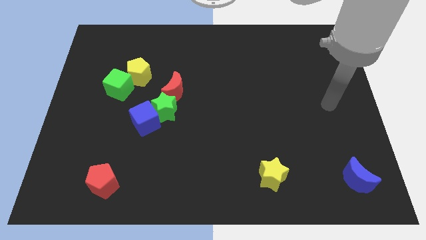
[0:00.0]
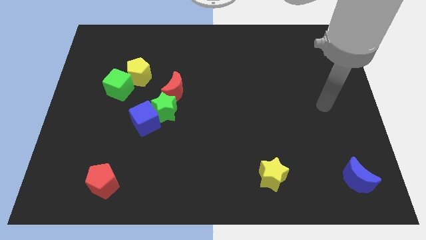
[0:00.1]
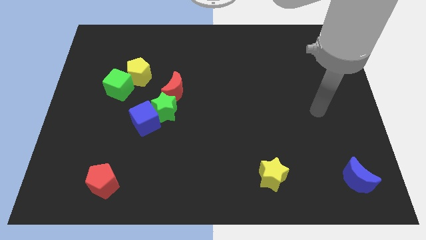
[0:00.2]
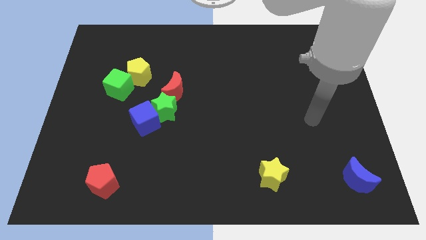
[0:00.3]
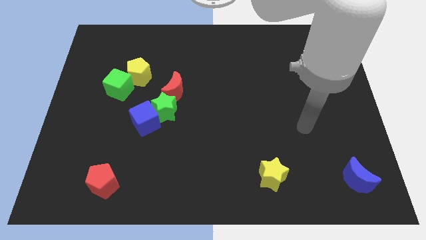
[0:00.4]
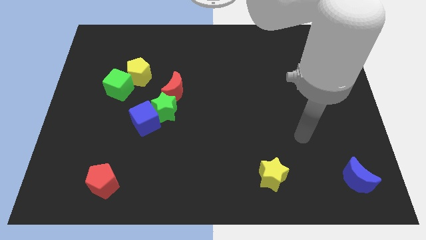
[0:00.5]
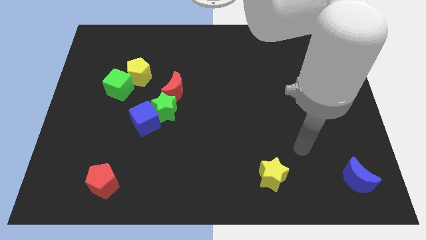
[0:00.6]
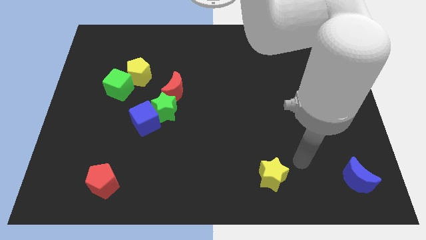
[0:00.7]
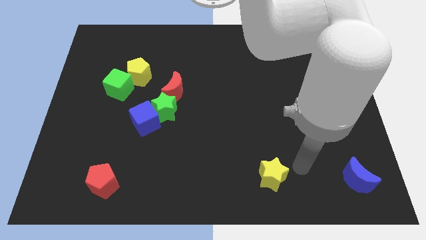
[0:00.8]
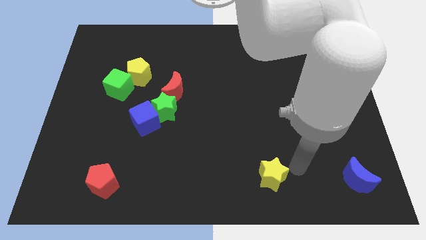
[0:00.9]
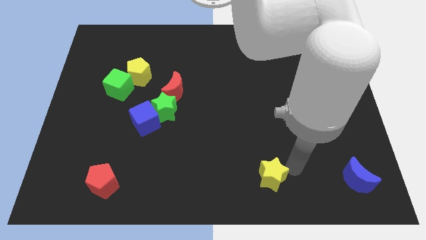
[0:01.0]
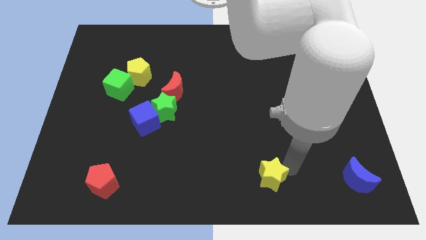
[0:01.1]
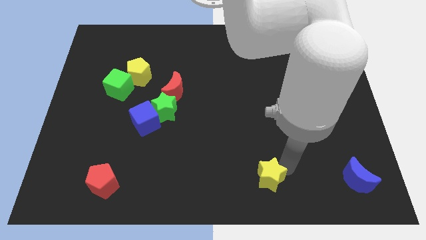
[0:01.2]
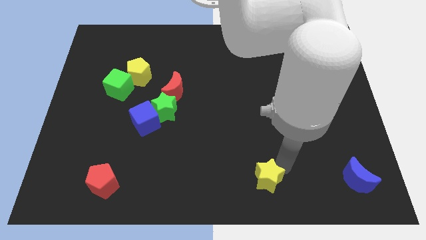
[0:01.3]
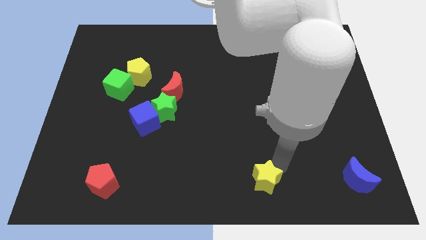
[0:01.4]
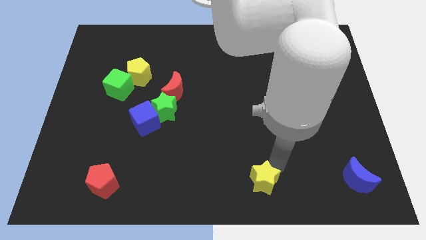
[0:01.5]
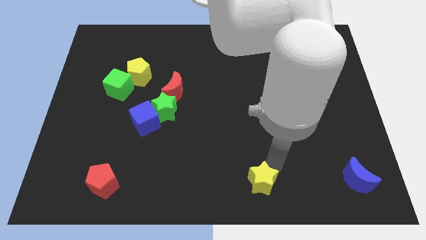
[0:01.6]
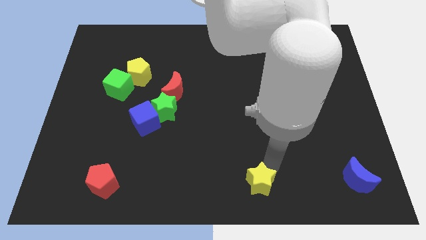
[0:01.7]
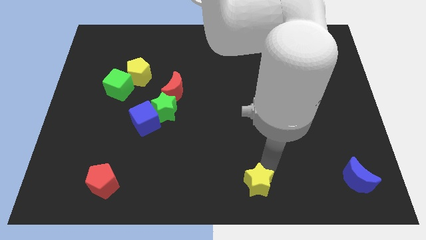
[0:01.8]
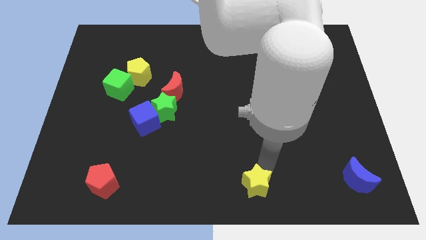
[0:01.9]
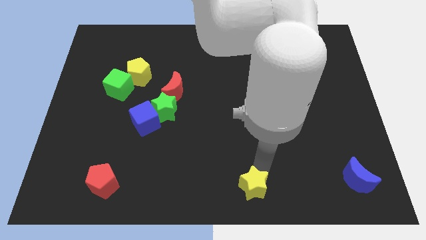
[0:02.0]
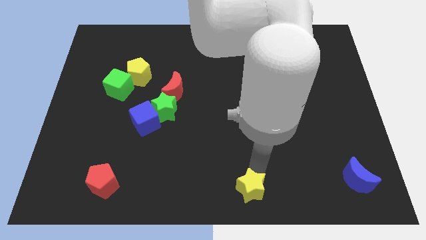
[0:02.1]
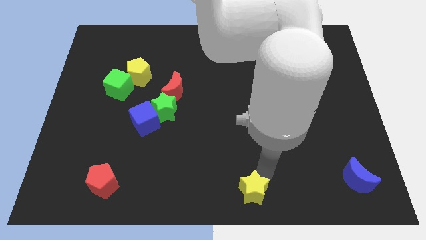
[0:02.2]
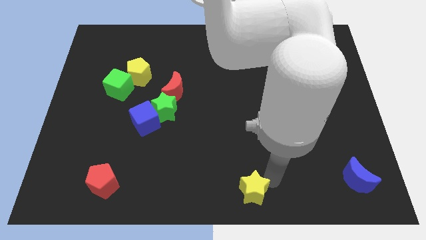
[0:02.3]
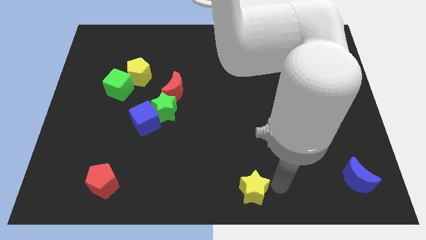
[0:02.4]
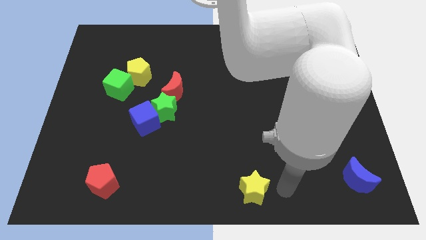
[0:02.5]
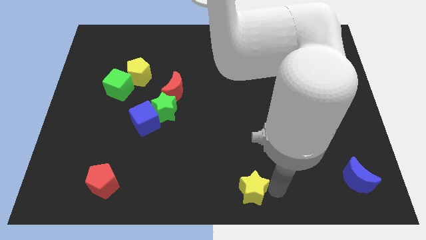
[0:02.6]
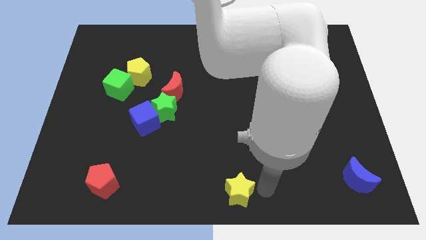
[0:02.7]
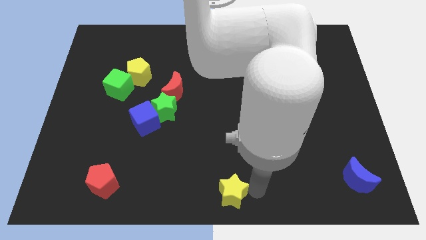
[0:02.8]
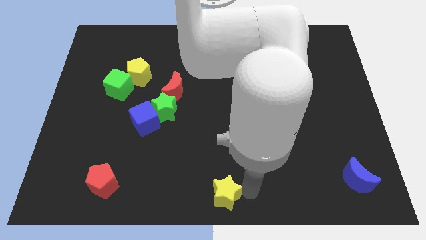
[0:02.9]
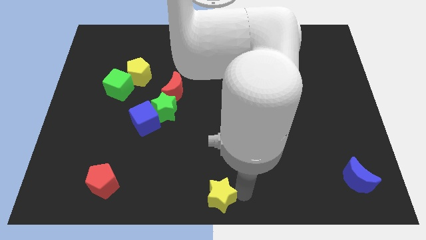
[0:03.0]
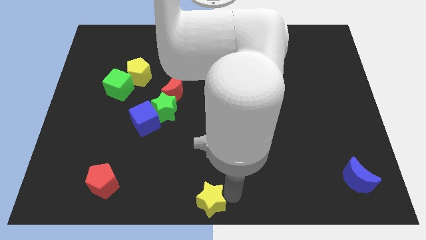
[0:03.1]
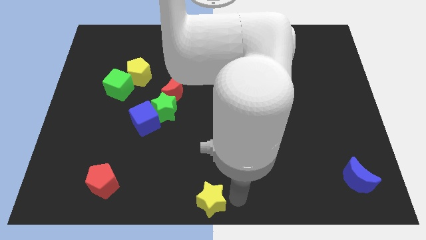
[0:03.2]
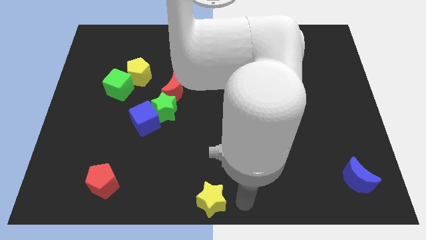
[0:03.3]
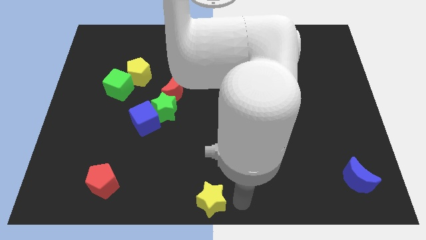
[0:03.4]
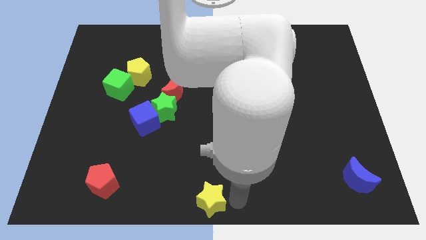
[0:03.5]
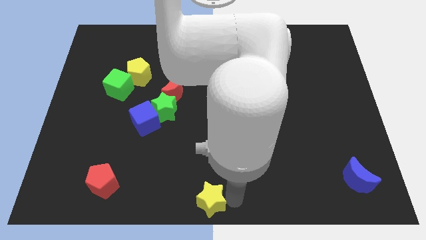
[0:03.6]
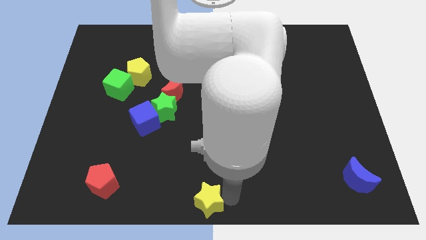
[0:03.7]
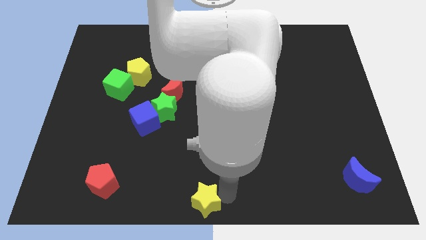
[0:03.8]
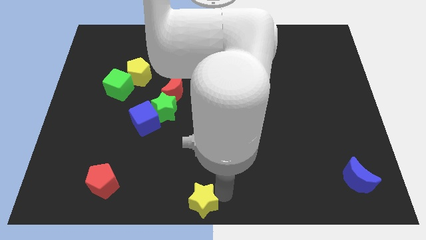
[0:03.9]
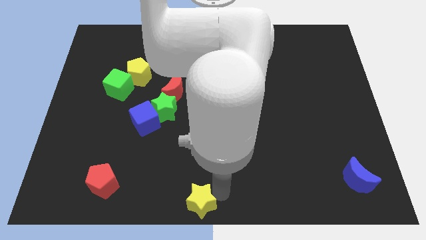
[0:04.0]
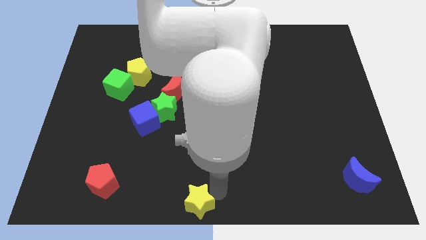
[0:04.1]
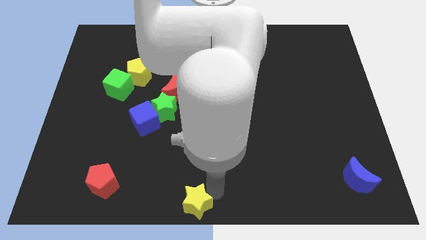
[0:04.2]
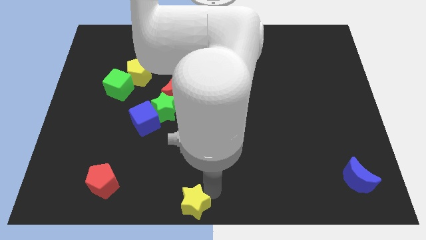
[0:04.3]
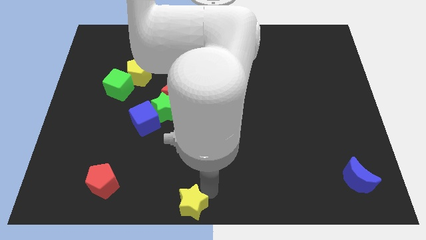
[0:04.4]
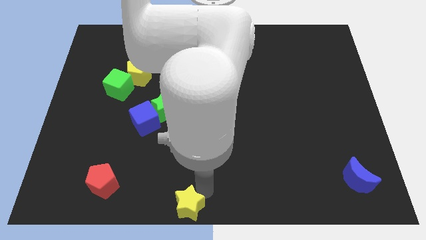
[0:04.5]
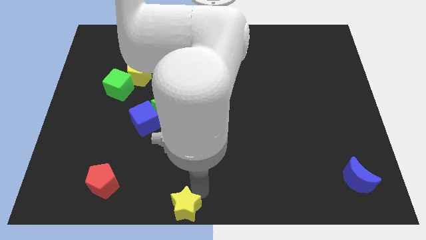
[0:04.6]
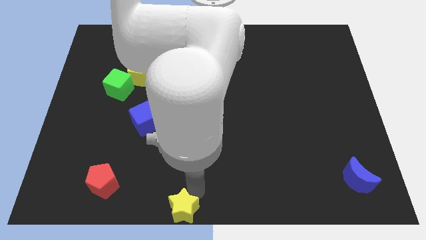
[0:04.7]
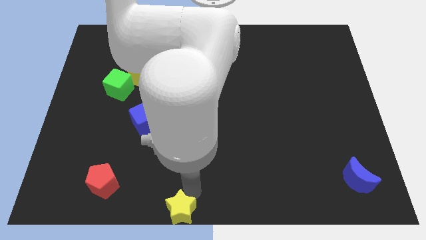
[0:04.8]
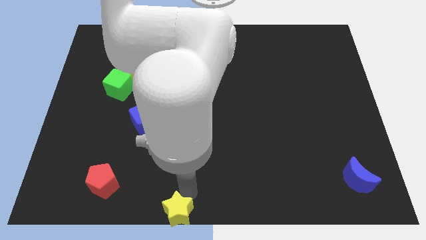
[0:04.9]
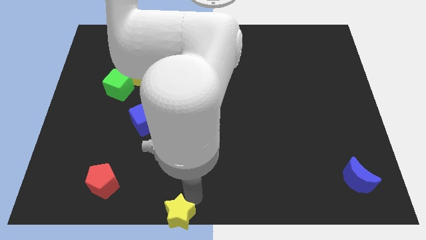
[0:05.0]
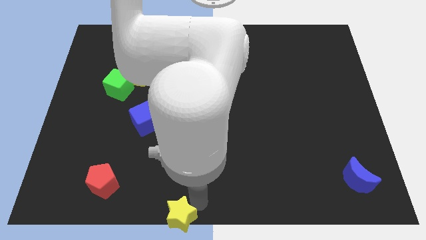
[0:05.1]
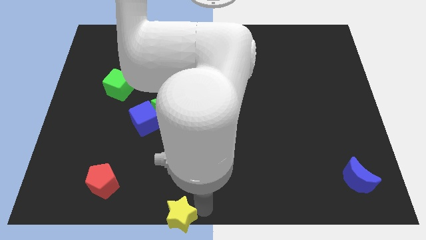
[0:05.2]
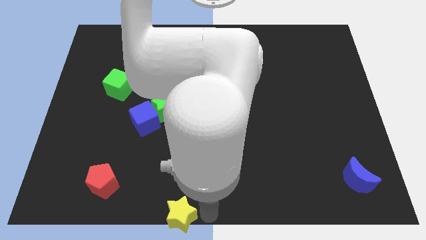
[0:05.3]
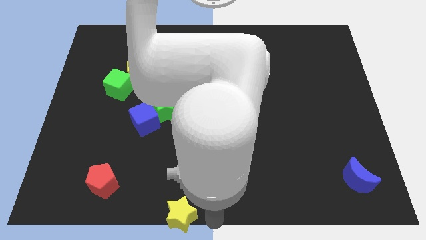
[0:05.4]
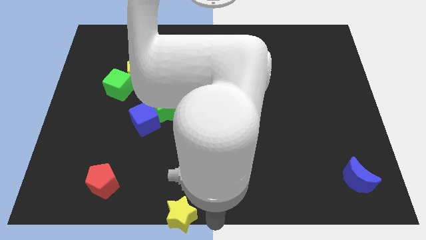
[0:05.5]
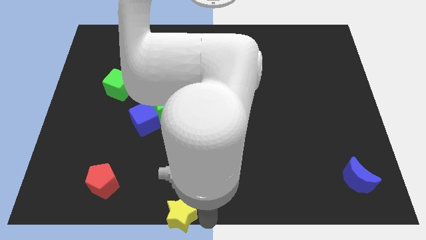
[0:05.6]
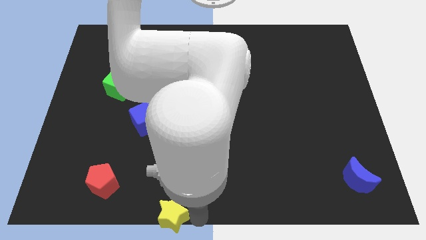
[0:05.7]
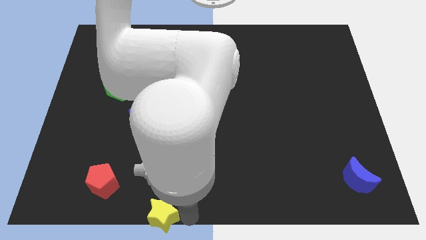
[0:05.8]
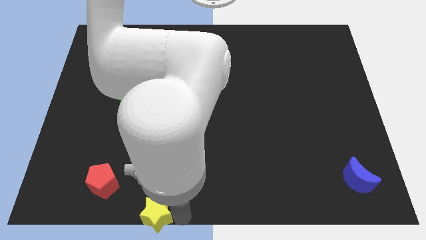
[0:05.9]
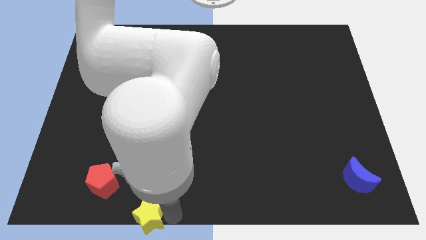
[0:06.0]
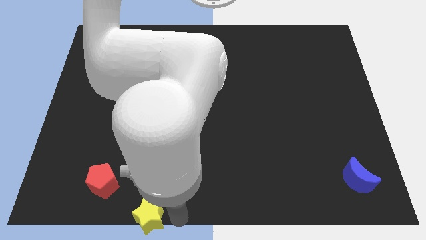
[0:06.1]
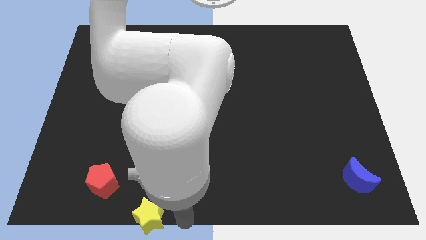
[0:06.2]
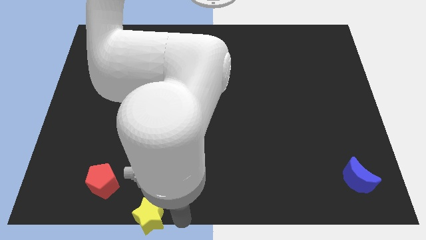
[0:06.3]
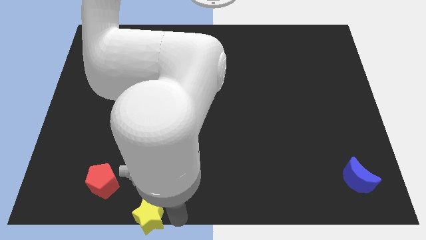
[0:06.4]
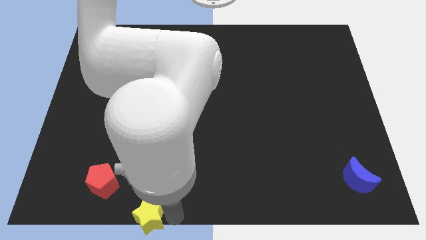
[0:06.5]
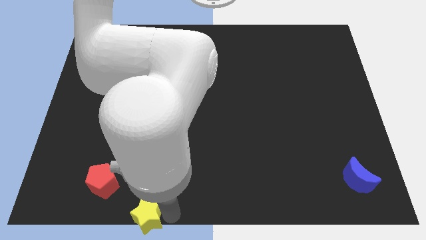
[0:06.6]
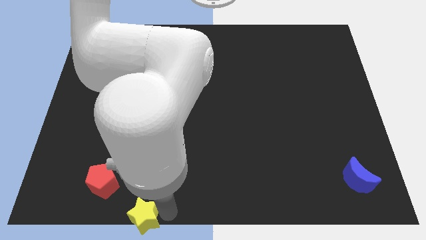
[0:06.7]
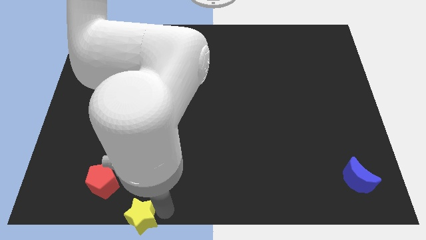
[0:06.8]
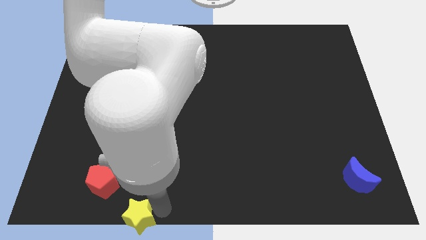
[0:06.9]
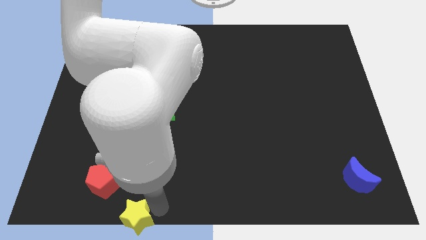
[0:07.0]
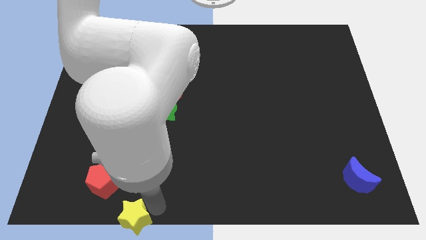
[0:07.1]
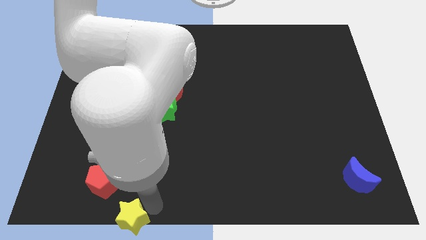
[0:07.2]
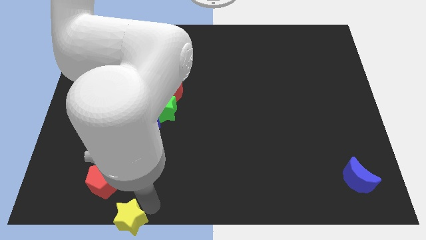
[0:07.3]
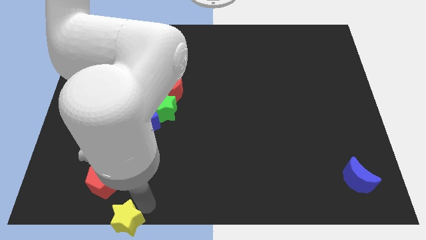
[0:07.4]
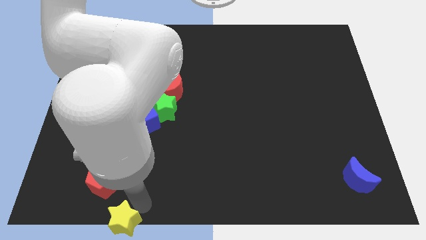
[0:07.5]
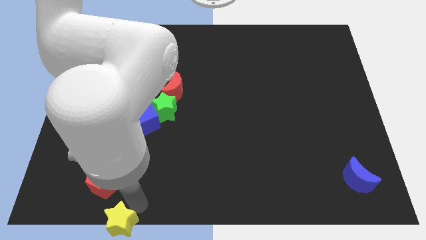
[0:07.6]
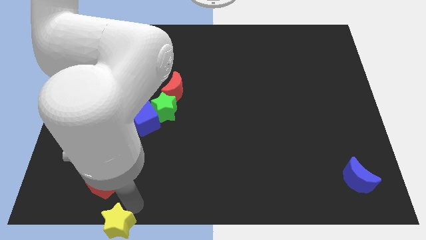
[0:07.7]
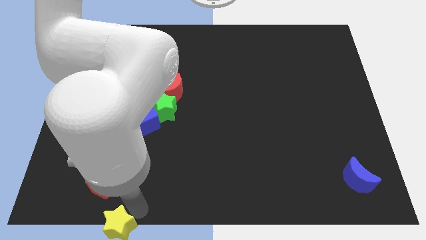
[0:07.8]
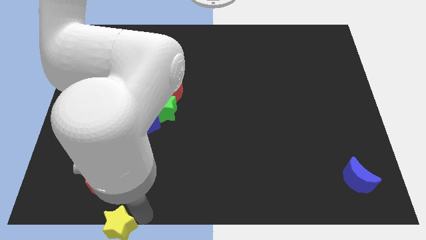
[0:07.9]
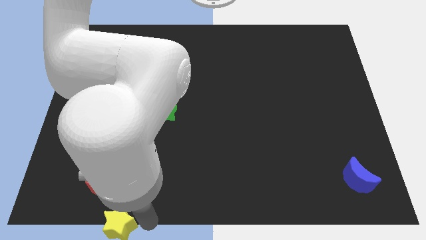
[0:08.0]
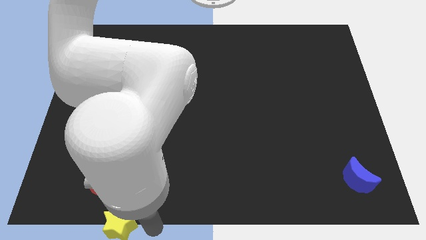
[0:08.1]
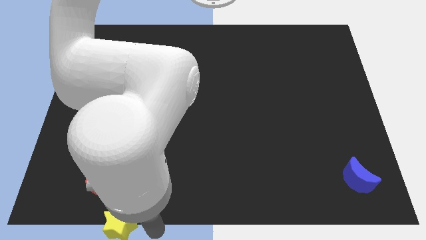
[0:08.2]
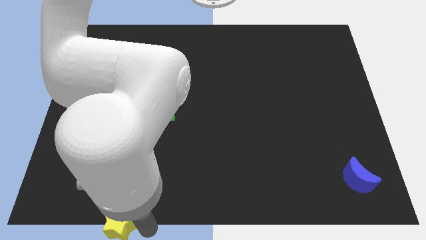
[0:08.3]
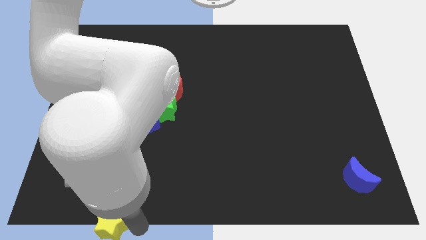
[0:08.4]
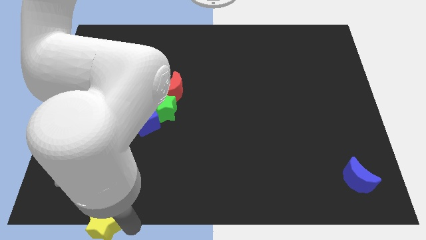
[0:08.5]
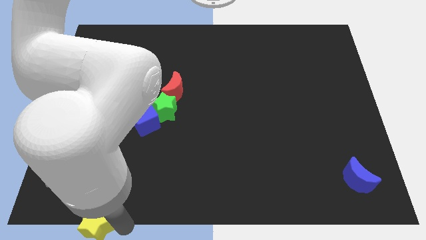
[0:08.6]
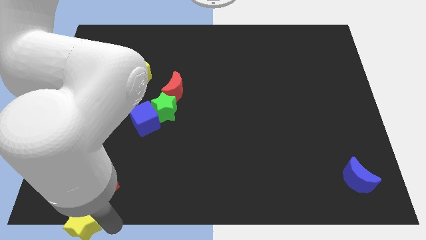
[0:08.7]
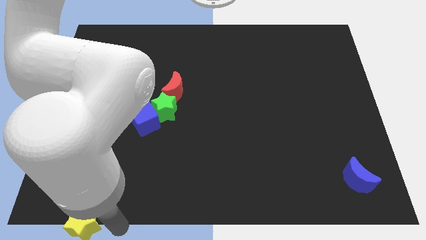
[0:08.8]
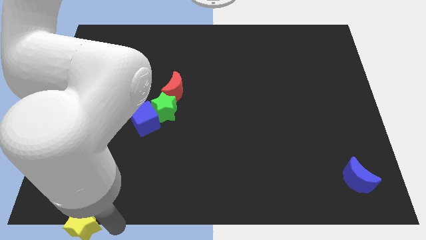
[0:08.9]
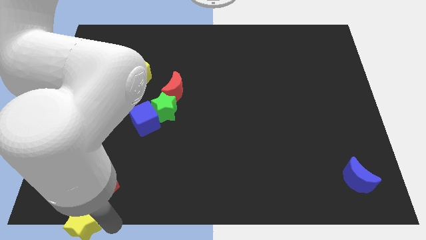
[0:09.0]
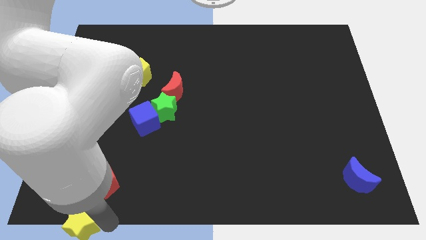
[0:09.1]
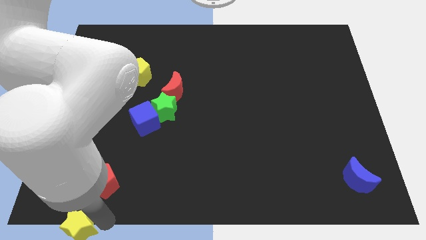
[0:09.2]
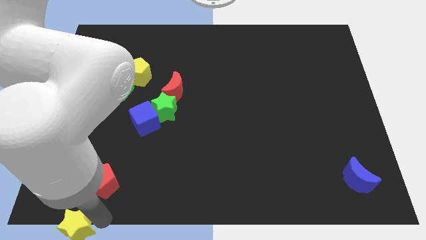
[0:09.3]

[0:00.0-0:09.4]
move the yellow star to the bottom left
